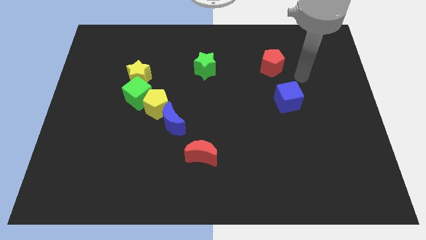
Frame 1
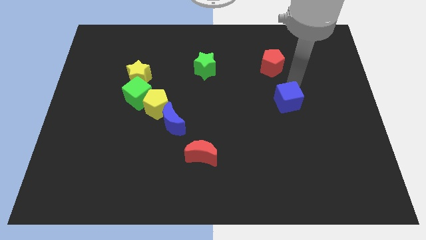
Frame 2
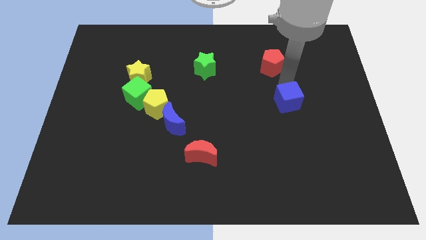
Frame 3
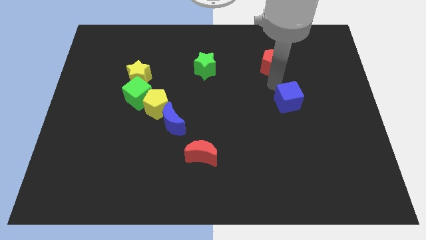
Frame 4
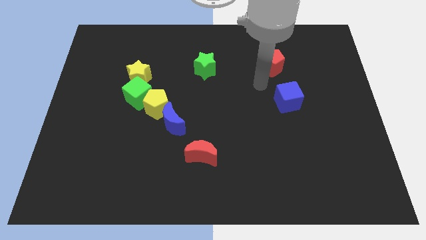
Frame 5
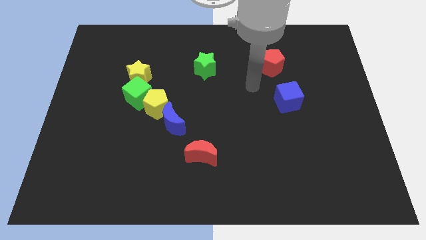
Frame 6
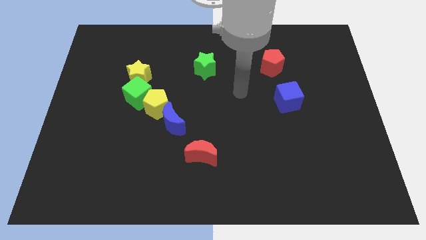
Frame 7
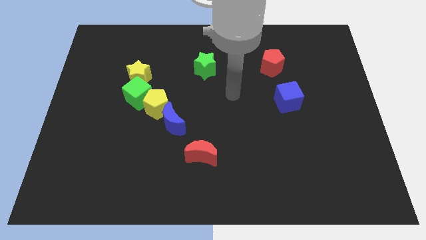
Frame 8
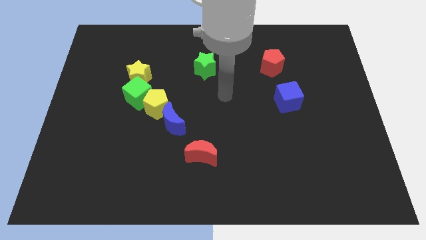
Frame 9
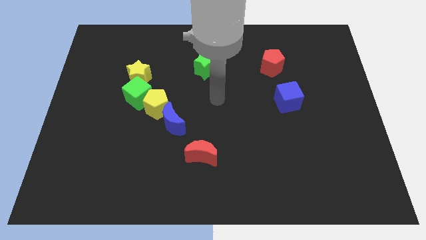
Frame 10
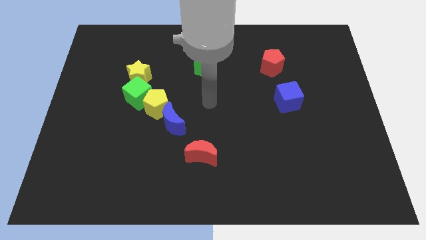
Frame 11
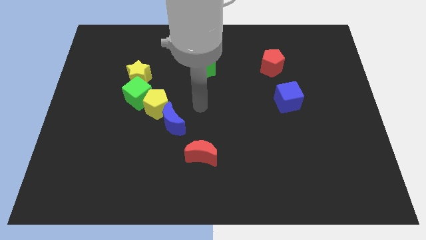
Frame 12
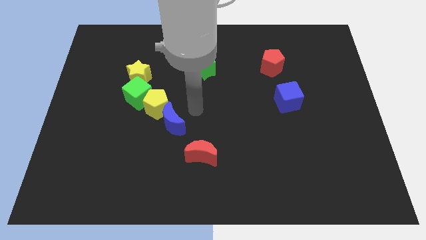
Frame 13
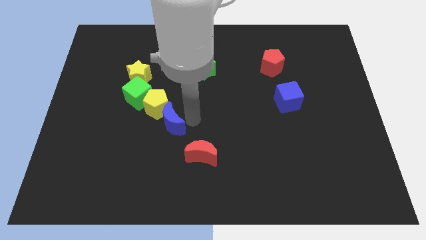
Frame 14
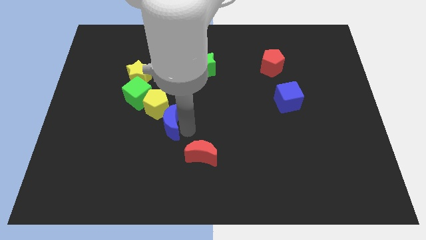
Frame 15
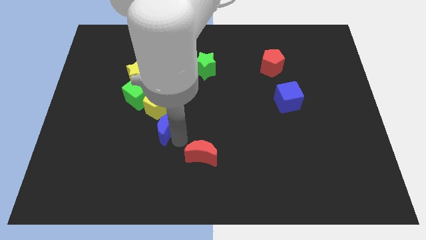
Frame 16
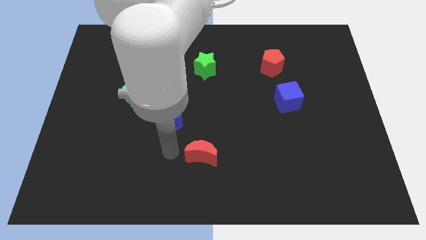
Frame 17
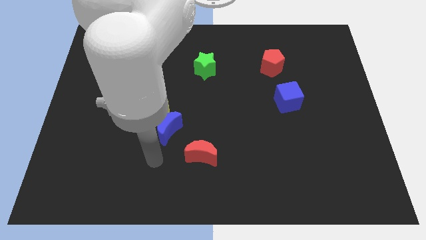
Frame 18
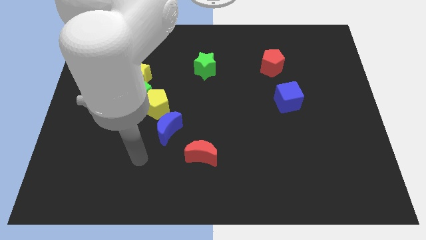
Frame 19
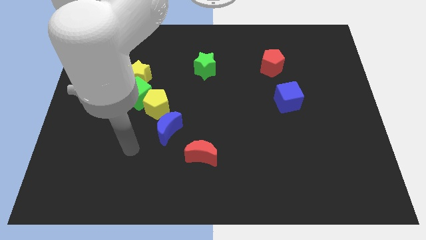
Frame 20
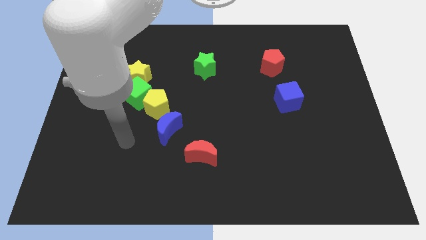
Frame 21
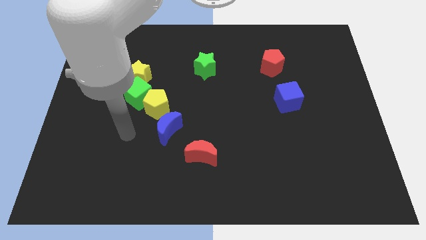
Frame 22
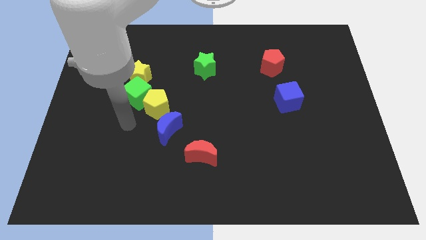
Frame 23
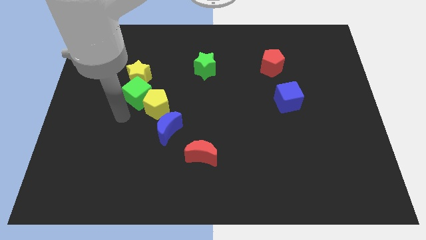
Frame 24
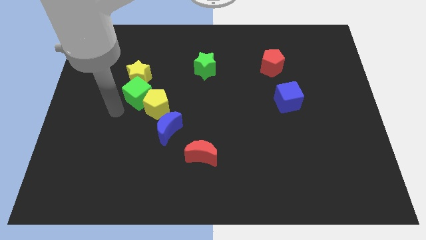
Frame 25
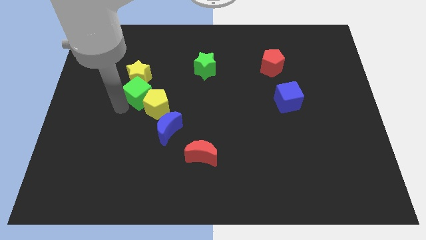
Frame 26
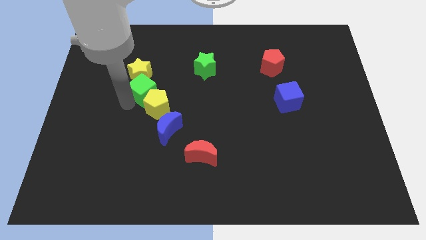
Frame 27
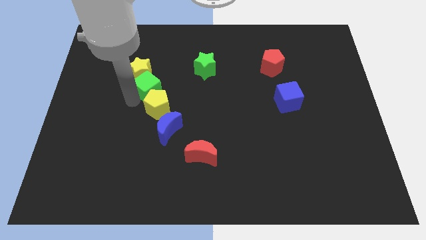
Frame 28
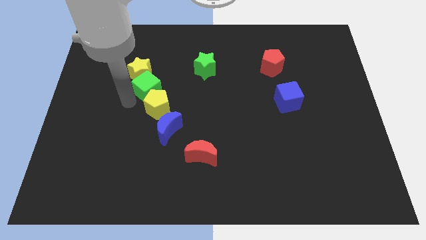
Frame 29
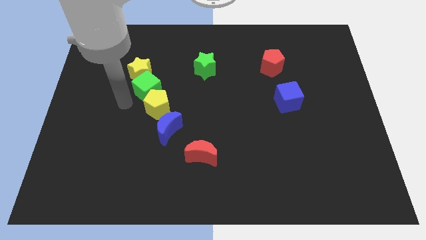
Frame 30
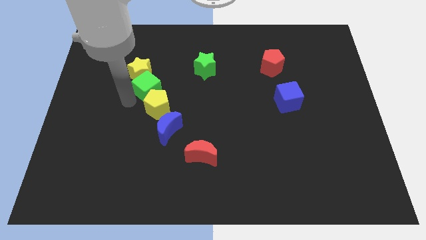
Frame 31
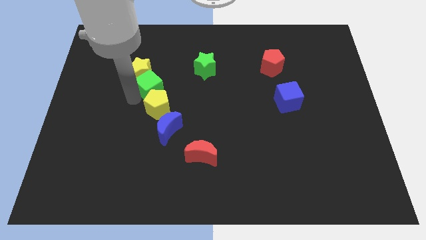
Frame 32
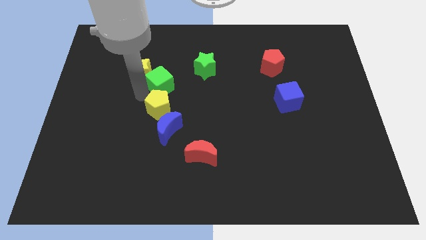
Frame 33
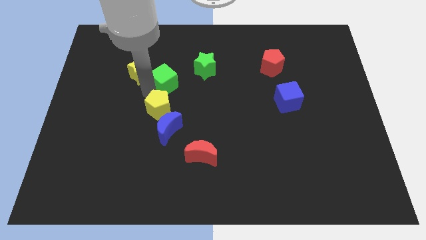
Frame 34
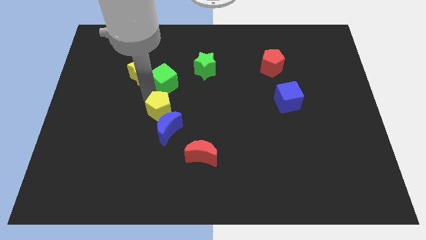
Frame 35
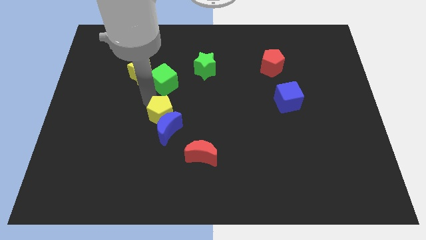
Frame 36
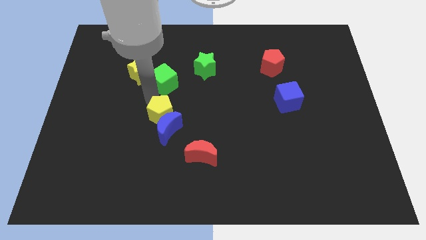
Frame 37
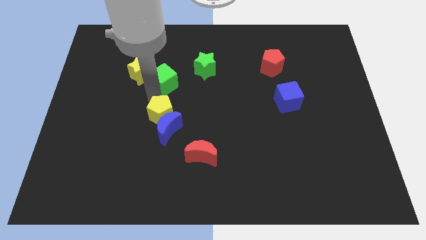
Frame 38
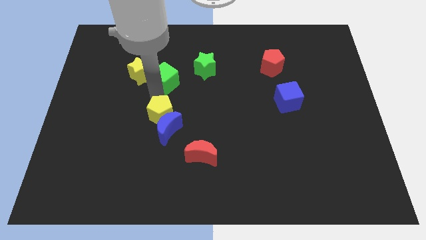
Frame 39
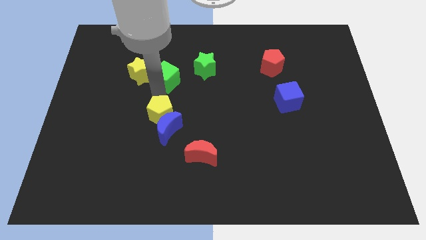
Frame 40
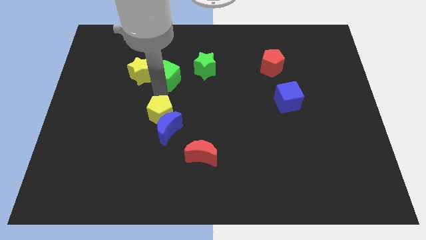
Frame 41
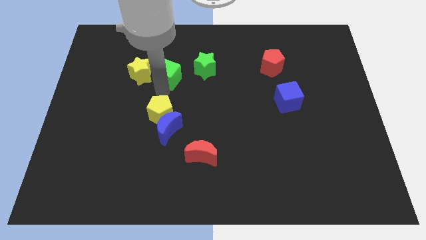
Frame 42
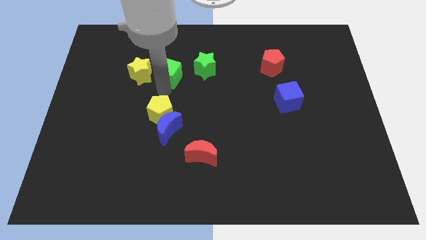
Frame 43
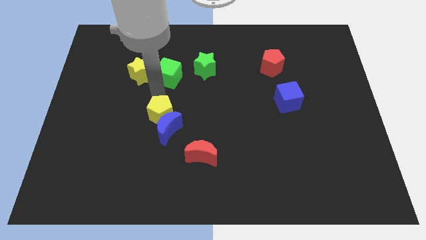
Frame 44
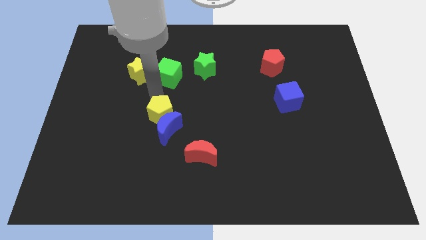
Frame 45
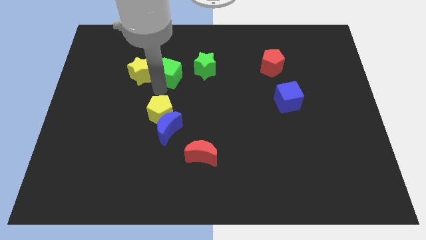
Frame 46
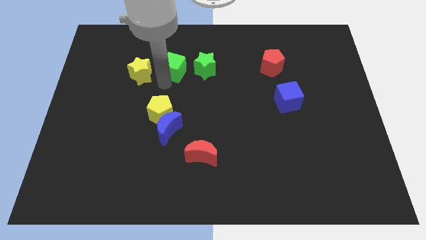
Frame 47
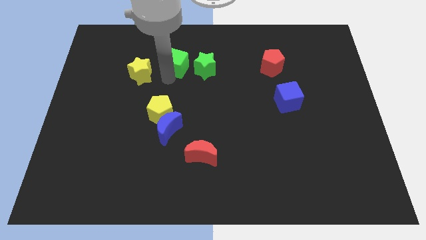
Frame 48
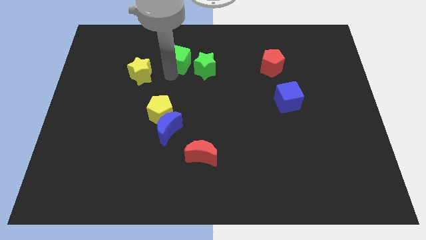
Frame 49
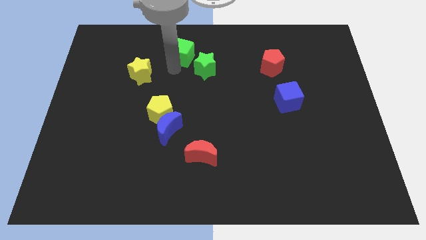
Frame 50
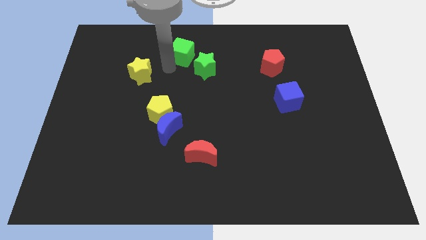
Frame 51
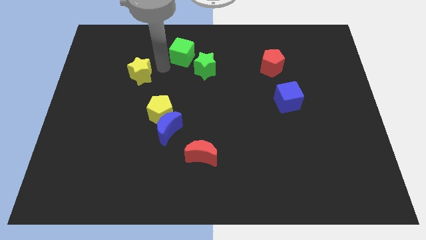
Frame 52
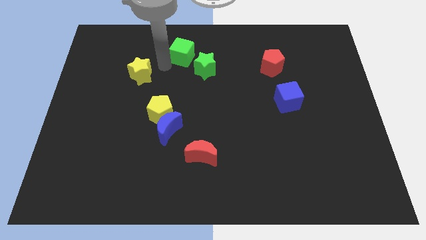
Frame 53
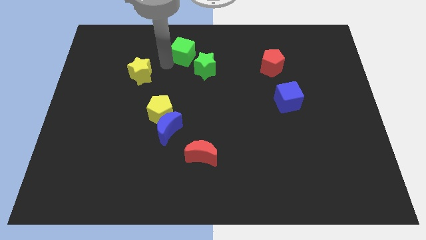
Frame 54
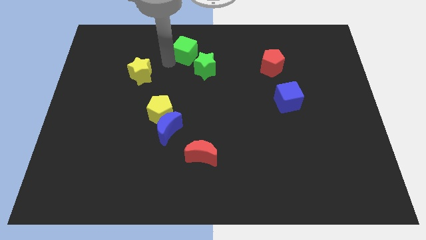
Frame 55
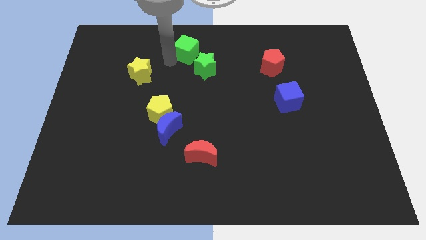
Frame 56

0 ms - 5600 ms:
put the green cube to the top

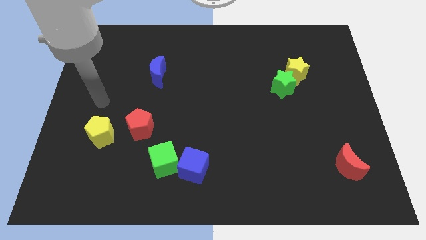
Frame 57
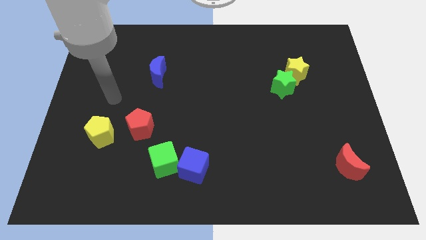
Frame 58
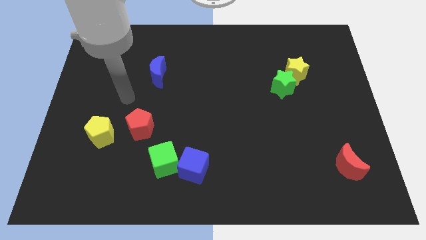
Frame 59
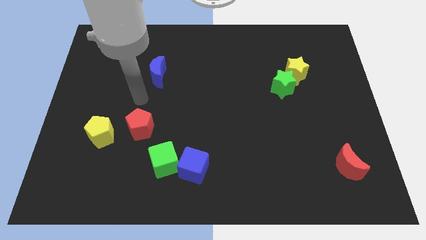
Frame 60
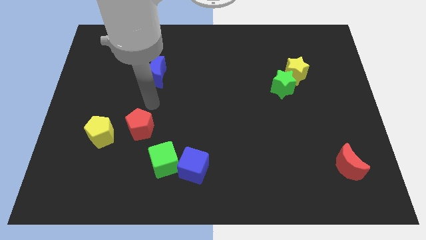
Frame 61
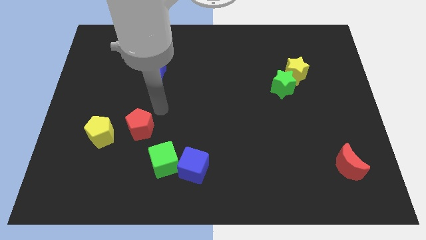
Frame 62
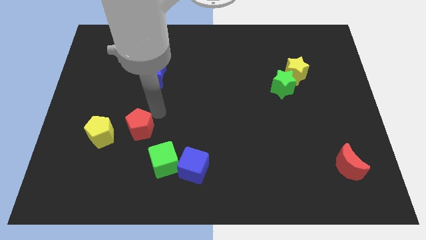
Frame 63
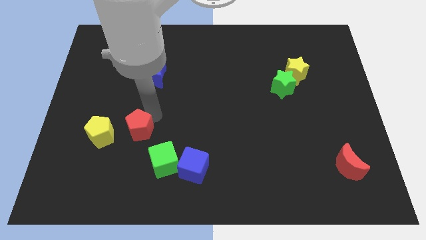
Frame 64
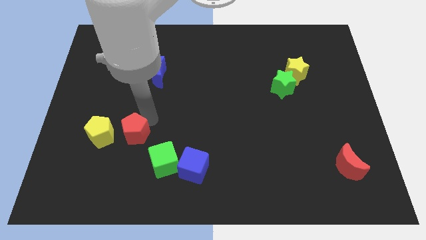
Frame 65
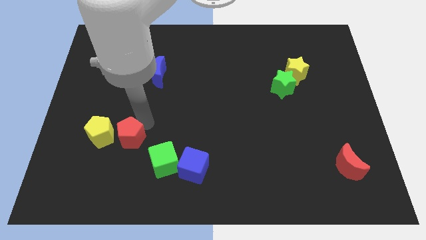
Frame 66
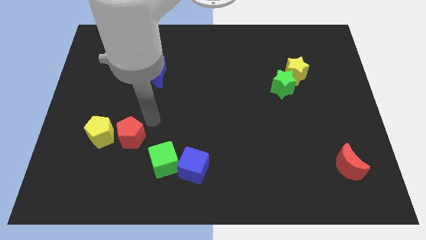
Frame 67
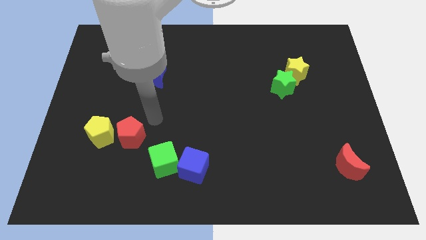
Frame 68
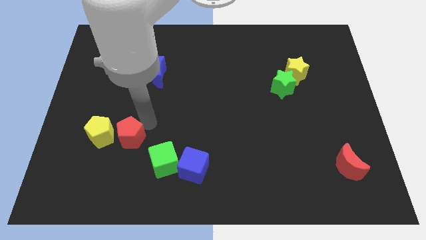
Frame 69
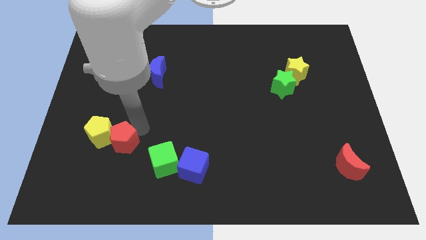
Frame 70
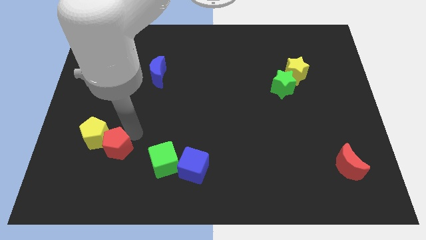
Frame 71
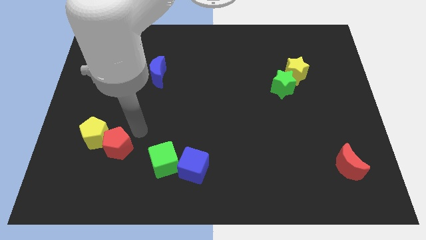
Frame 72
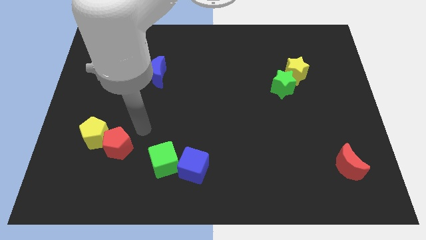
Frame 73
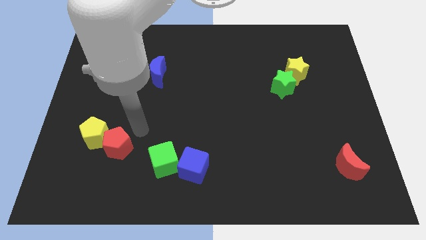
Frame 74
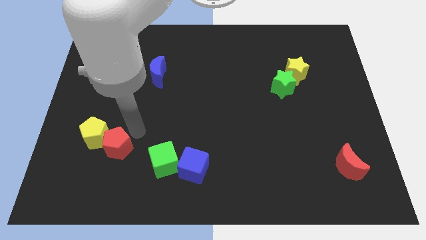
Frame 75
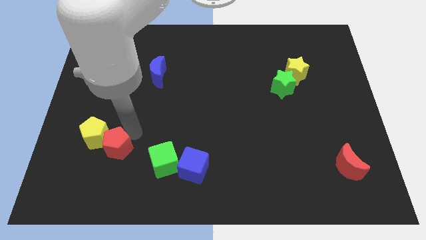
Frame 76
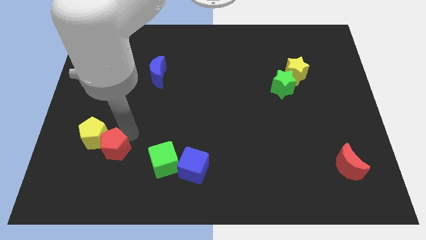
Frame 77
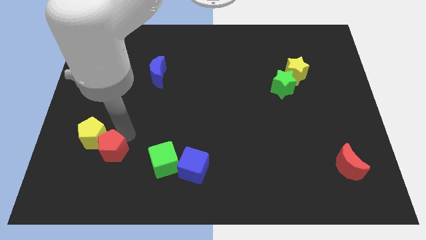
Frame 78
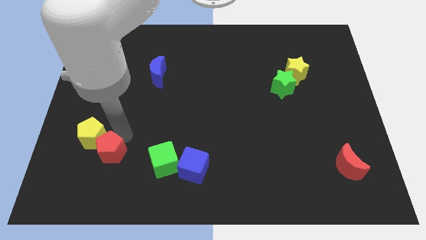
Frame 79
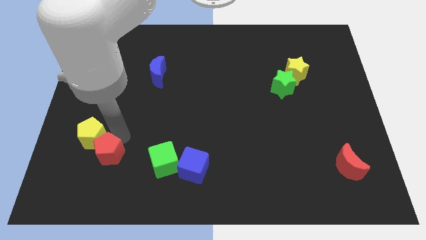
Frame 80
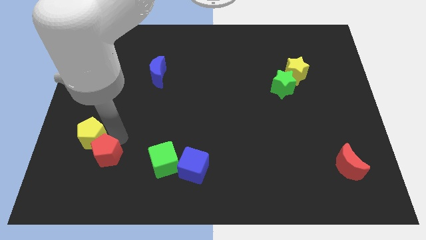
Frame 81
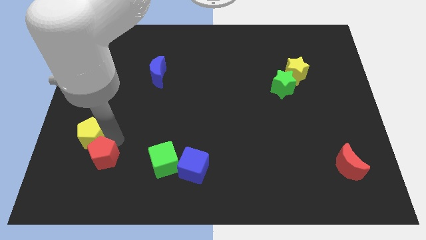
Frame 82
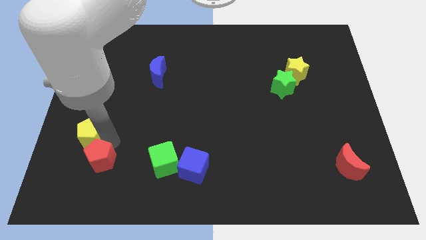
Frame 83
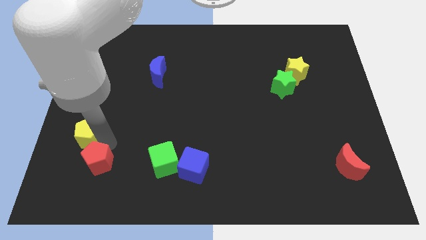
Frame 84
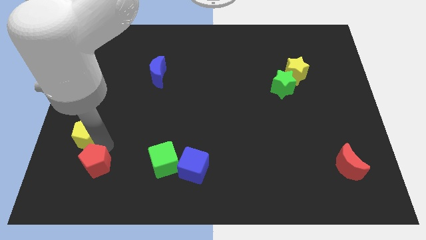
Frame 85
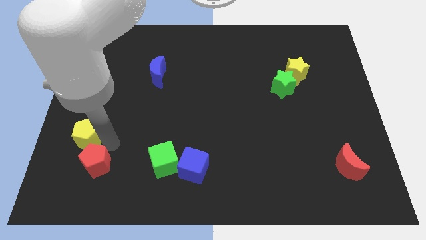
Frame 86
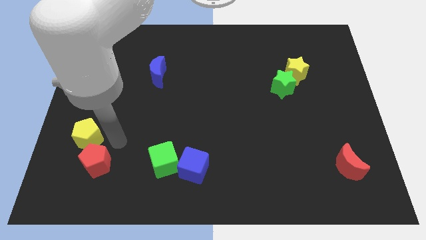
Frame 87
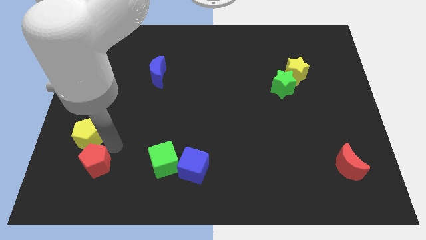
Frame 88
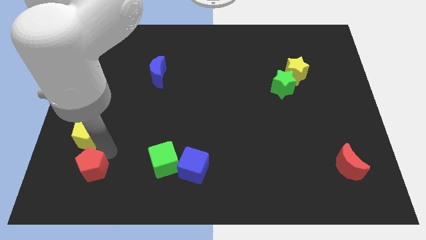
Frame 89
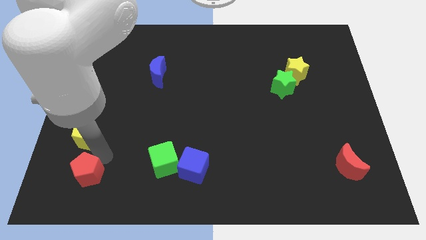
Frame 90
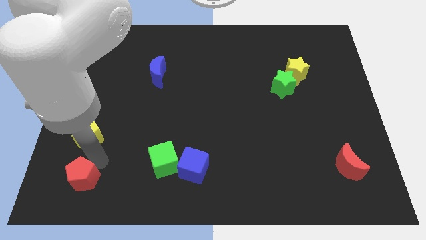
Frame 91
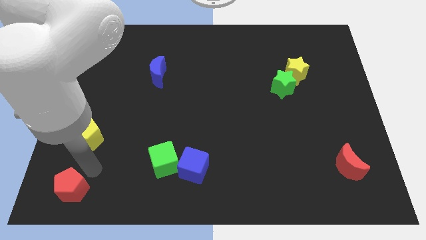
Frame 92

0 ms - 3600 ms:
slide the red pentagon to the bottom left of the board
